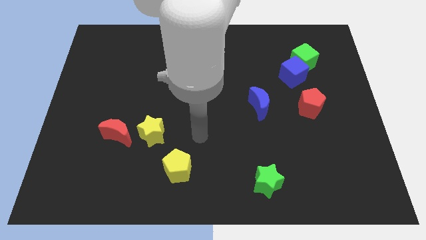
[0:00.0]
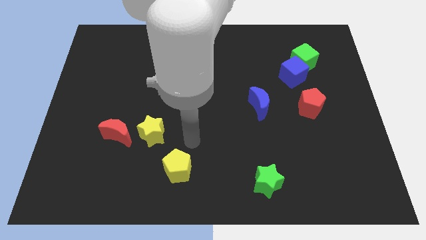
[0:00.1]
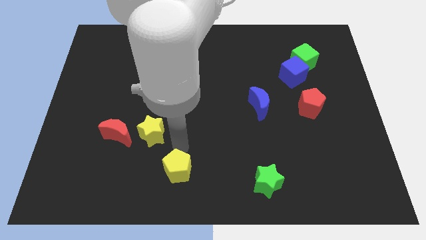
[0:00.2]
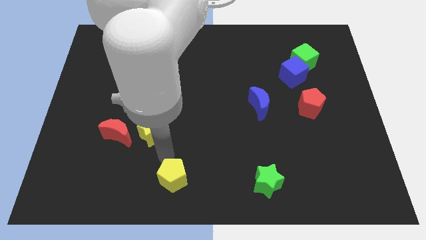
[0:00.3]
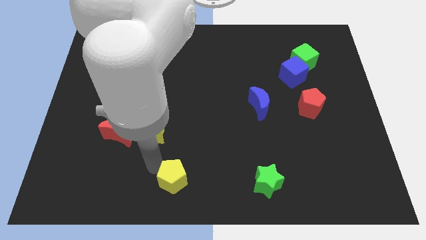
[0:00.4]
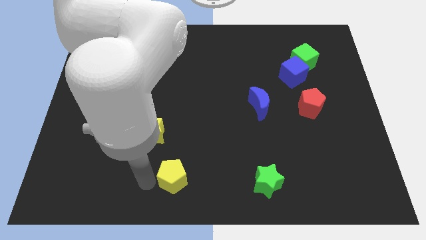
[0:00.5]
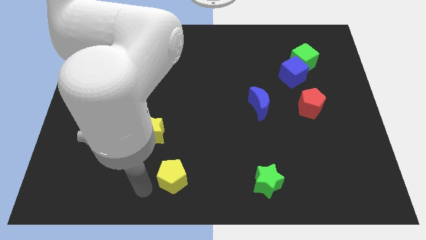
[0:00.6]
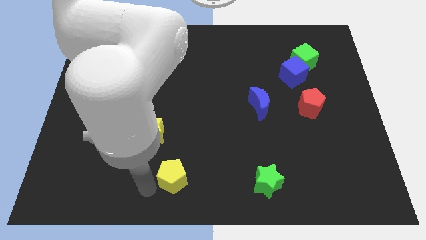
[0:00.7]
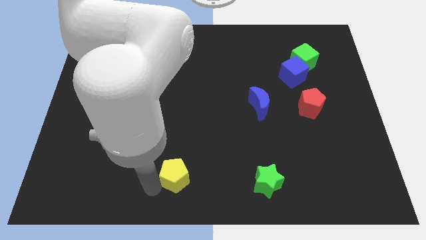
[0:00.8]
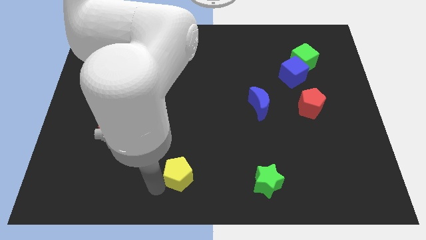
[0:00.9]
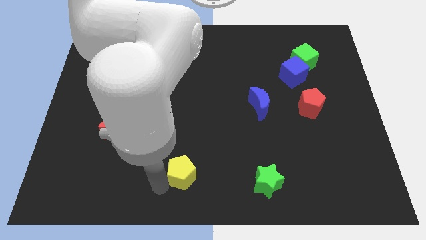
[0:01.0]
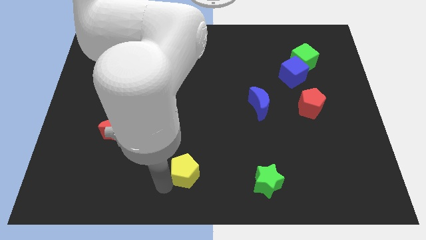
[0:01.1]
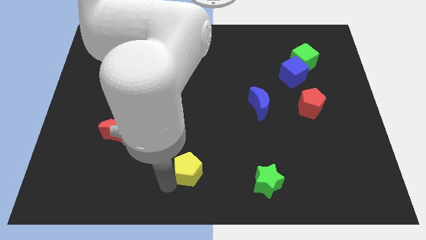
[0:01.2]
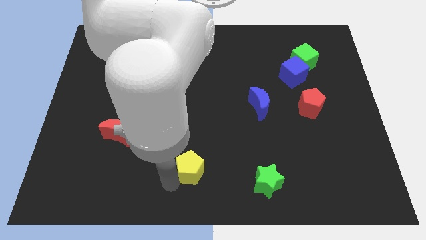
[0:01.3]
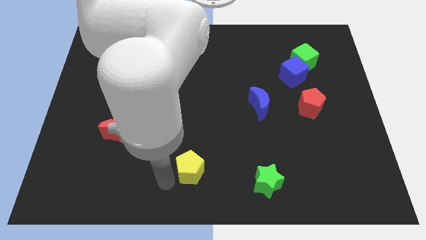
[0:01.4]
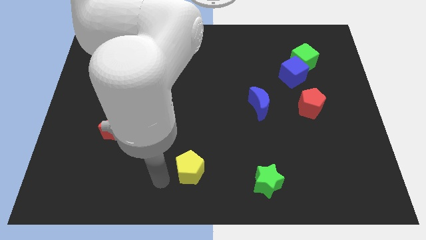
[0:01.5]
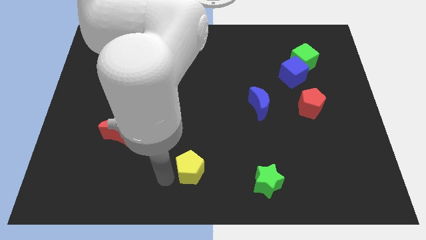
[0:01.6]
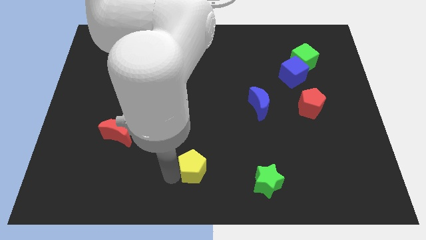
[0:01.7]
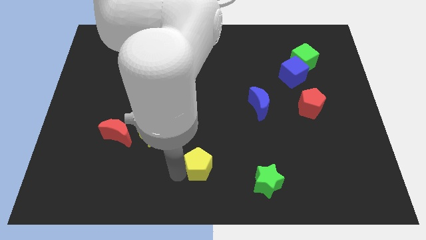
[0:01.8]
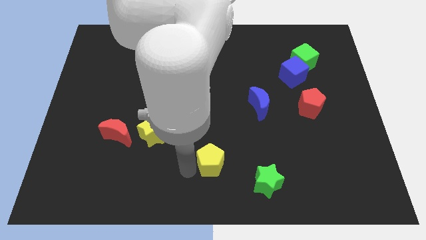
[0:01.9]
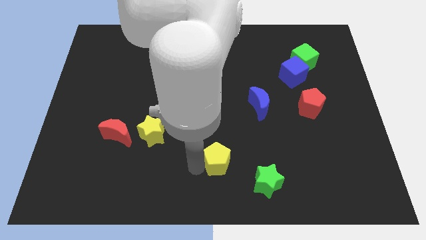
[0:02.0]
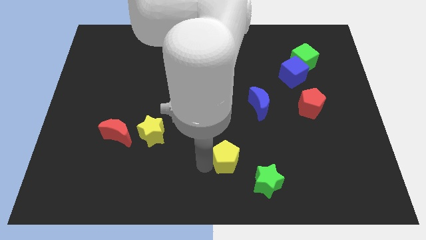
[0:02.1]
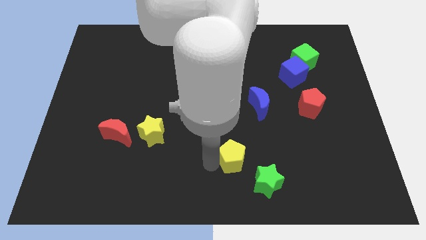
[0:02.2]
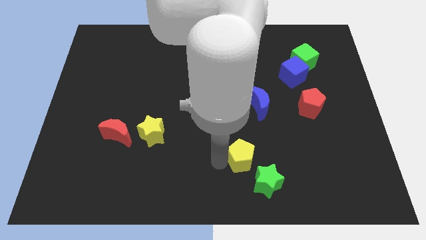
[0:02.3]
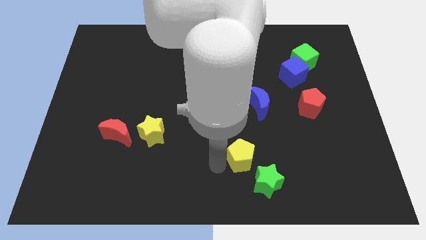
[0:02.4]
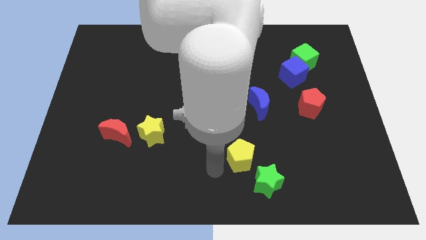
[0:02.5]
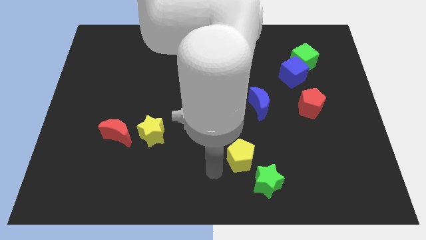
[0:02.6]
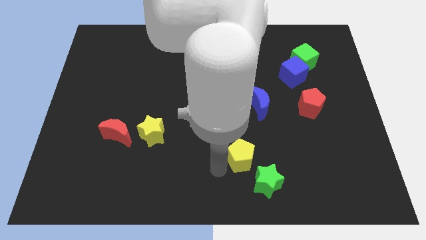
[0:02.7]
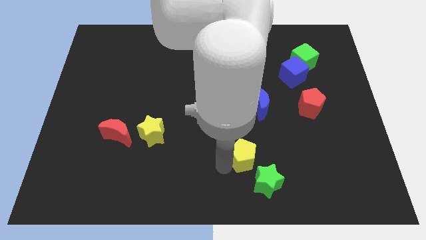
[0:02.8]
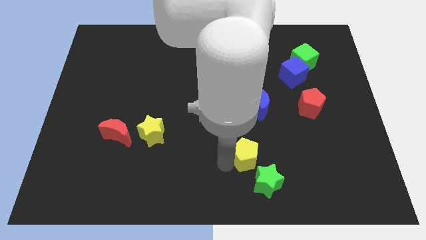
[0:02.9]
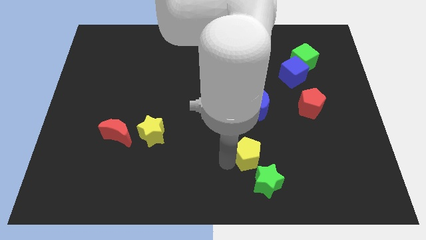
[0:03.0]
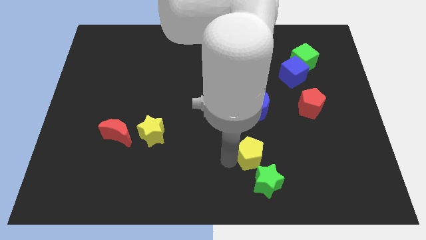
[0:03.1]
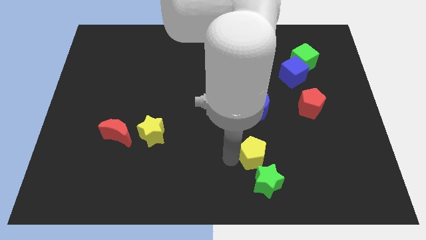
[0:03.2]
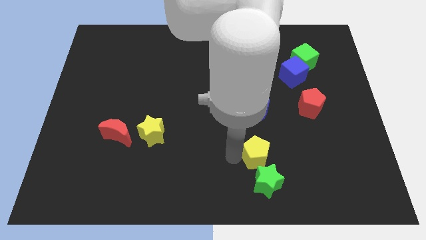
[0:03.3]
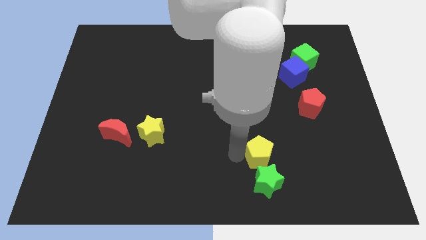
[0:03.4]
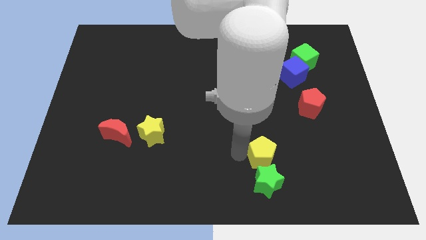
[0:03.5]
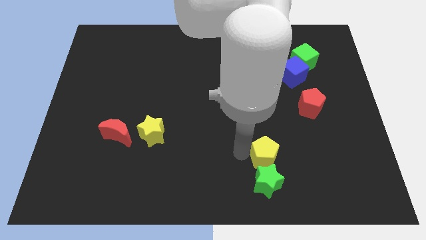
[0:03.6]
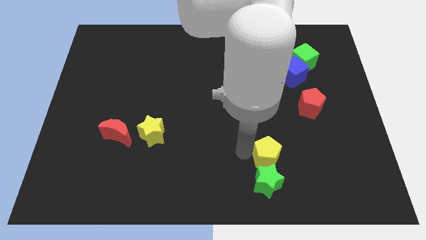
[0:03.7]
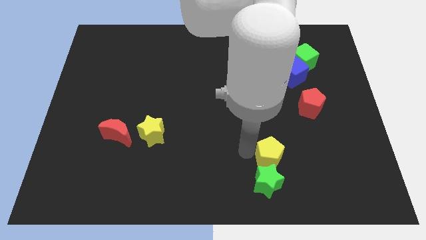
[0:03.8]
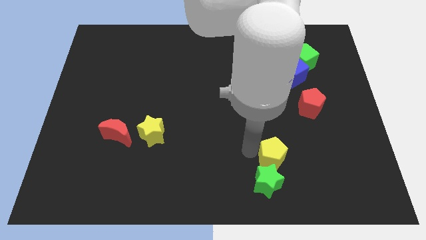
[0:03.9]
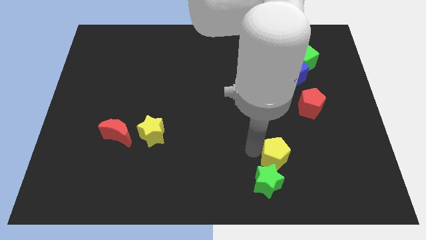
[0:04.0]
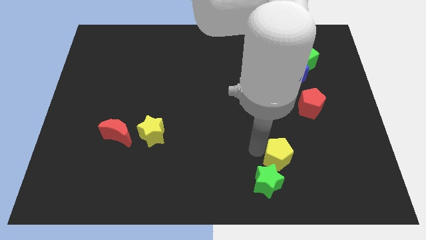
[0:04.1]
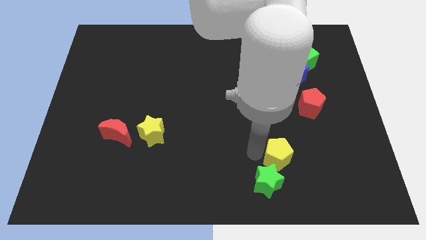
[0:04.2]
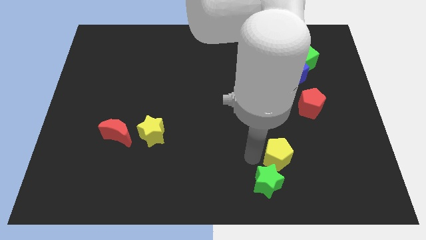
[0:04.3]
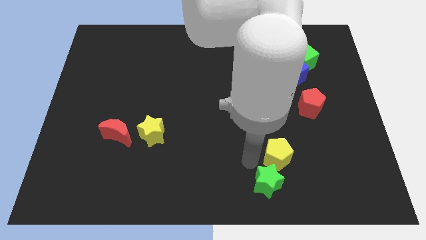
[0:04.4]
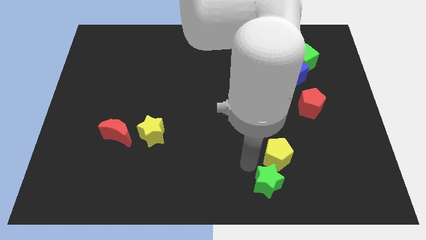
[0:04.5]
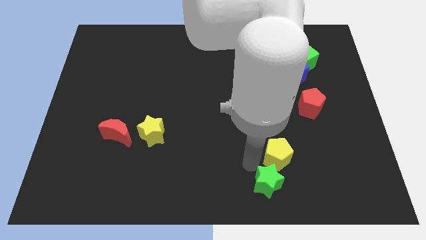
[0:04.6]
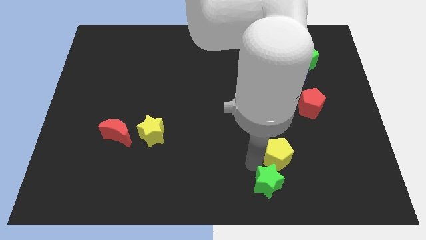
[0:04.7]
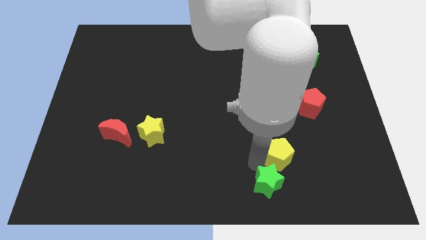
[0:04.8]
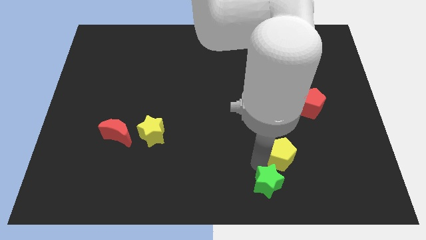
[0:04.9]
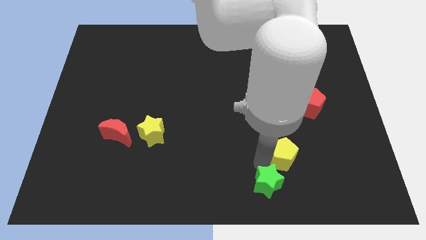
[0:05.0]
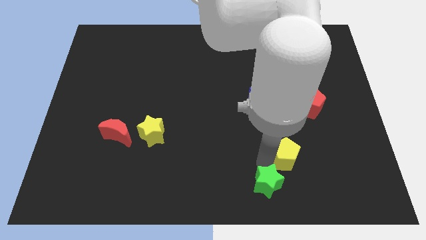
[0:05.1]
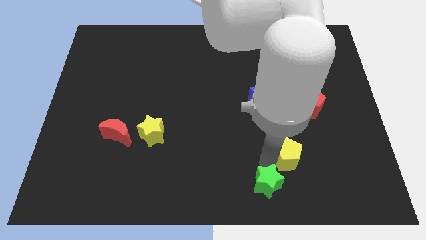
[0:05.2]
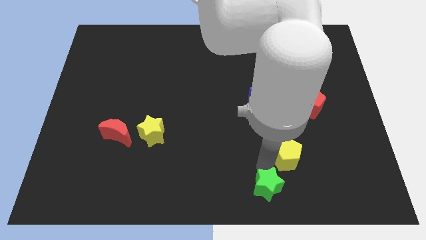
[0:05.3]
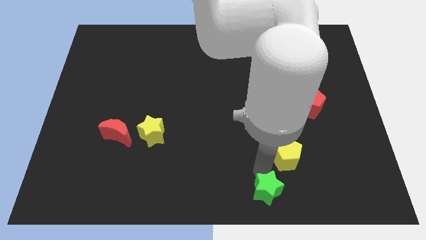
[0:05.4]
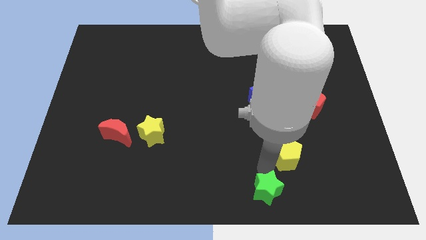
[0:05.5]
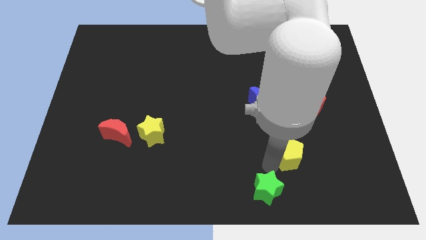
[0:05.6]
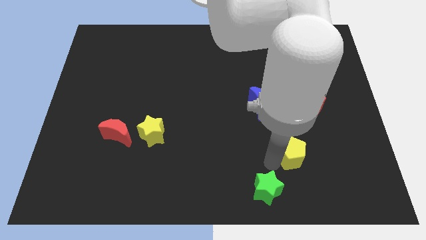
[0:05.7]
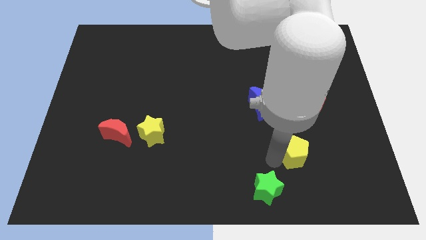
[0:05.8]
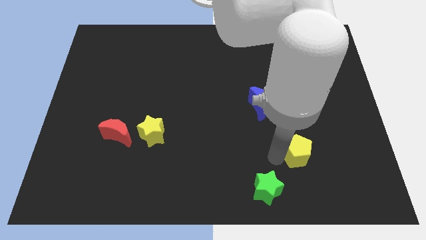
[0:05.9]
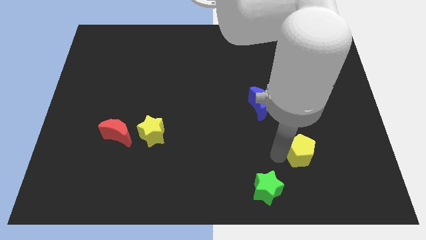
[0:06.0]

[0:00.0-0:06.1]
move the yellow pentagon below the red pentagon

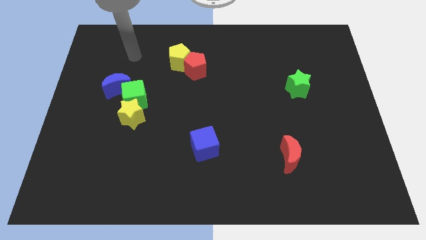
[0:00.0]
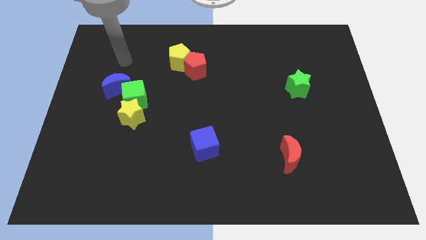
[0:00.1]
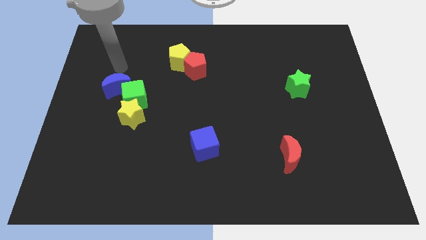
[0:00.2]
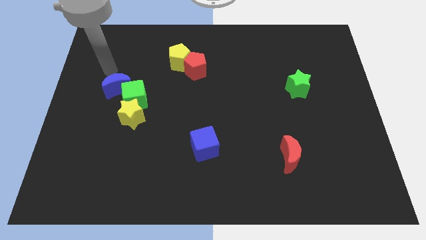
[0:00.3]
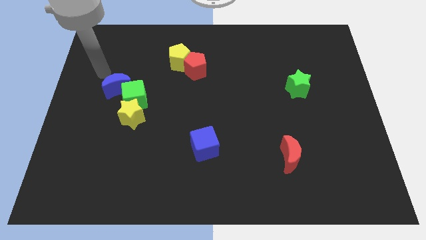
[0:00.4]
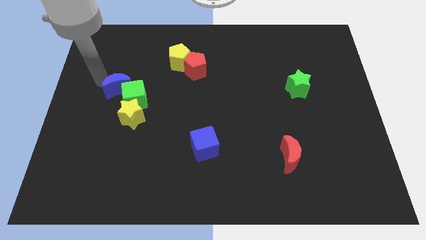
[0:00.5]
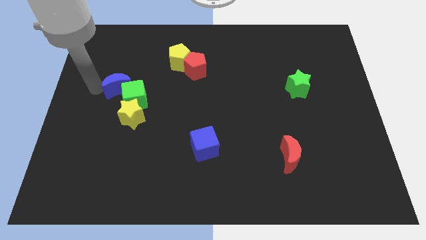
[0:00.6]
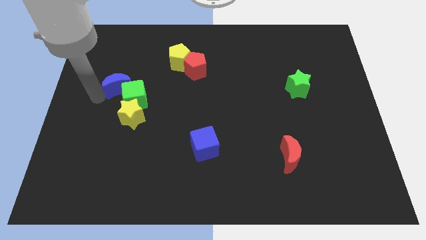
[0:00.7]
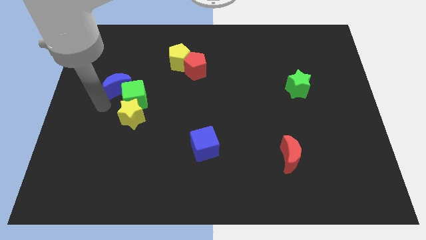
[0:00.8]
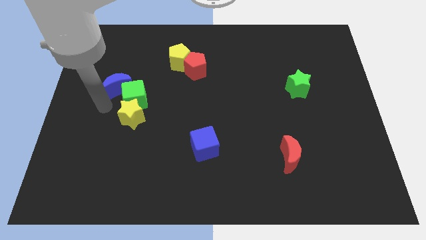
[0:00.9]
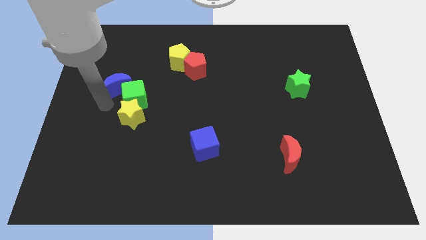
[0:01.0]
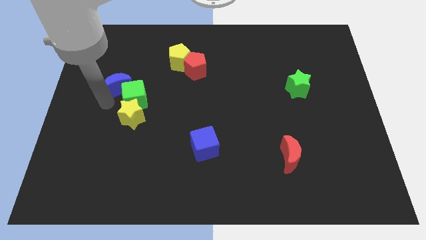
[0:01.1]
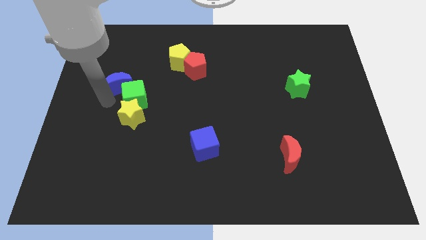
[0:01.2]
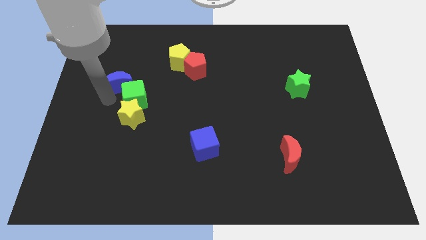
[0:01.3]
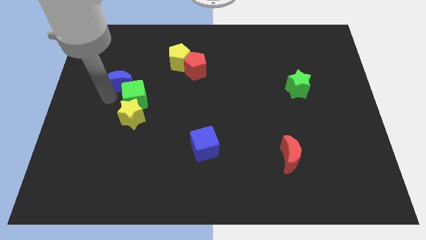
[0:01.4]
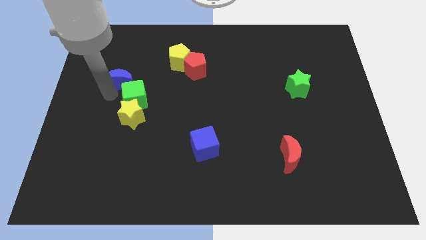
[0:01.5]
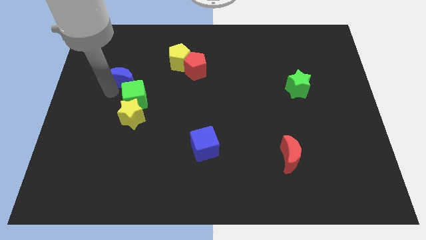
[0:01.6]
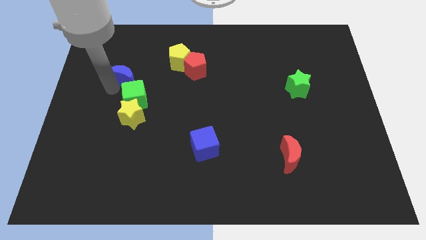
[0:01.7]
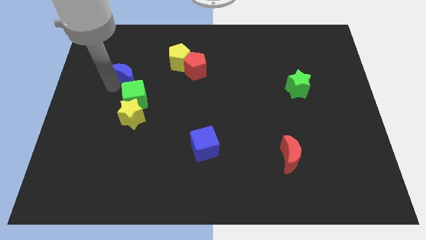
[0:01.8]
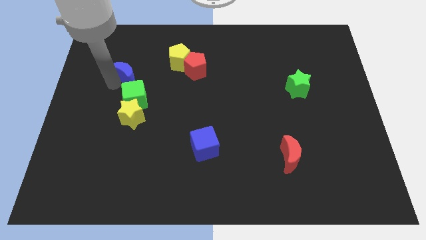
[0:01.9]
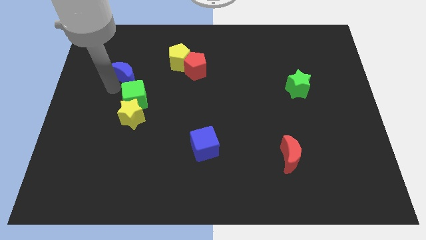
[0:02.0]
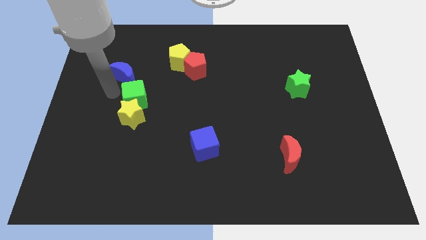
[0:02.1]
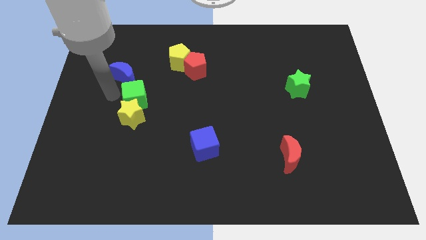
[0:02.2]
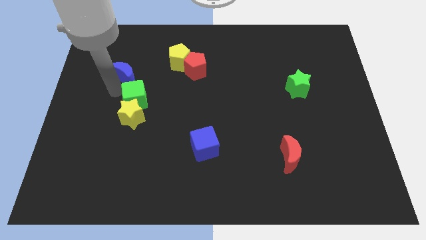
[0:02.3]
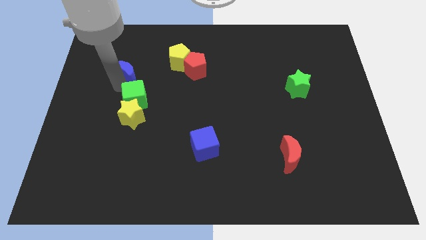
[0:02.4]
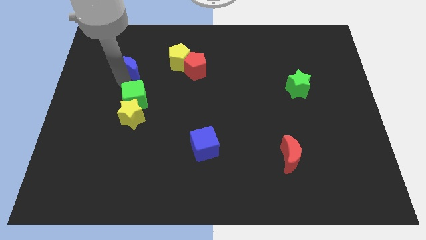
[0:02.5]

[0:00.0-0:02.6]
slide the blue moon to the left of the yellow pentagon
